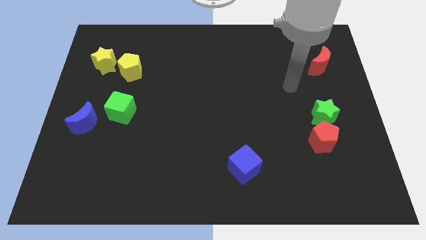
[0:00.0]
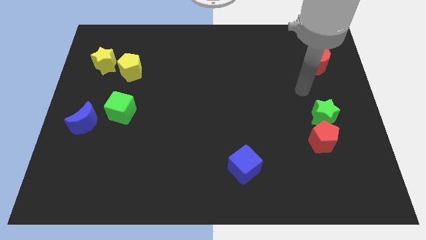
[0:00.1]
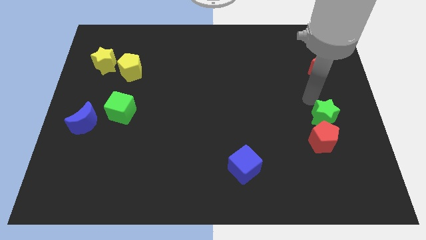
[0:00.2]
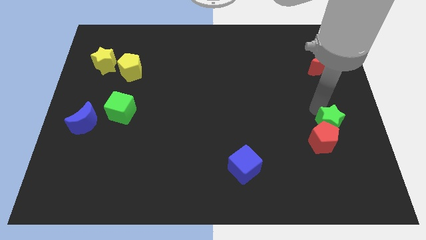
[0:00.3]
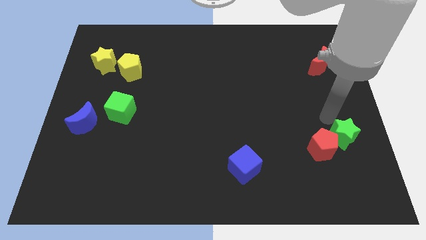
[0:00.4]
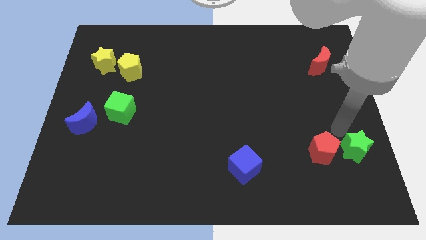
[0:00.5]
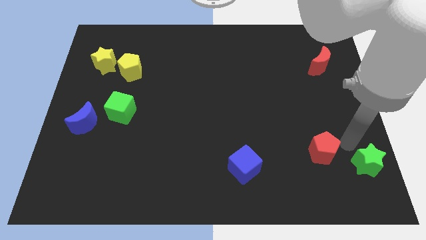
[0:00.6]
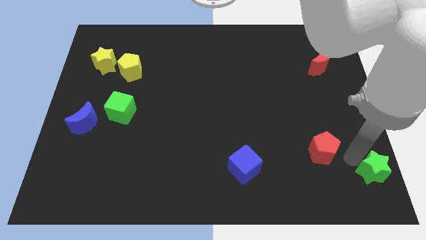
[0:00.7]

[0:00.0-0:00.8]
move the red pentagon away from the green star

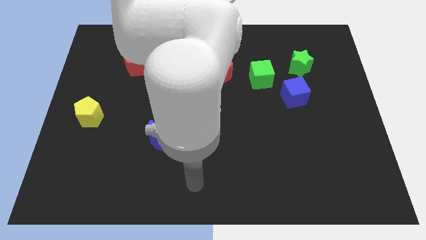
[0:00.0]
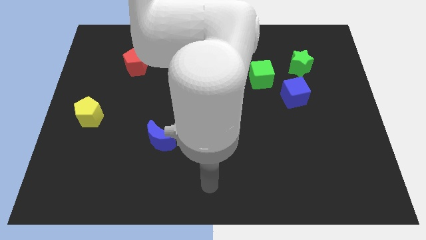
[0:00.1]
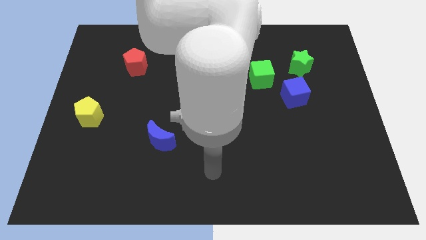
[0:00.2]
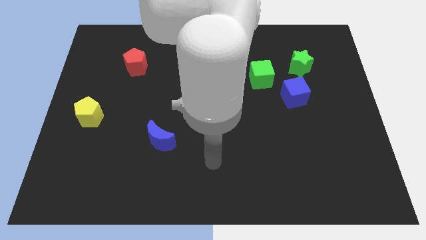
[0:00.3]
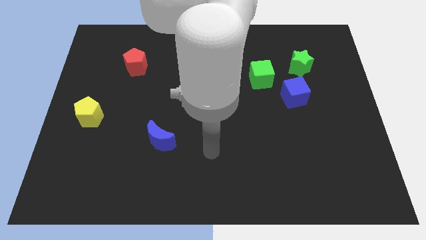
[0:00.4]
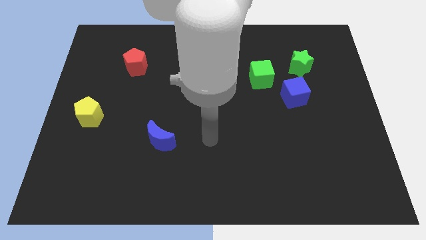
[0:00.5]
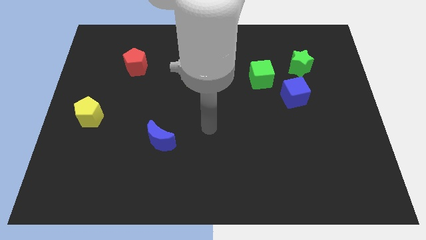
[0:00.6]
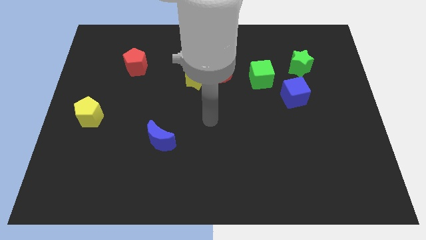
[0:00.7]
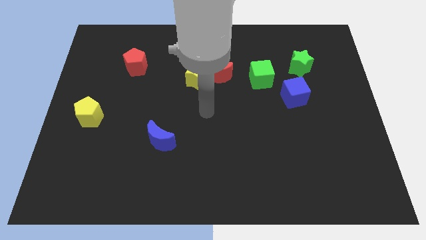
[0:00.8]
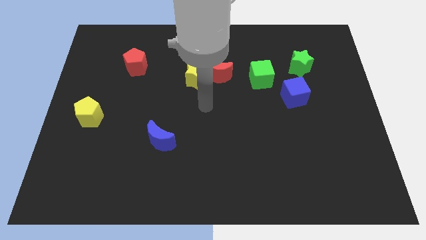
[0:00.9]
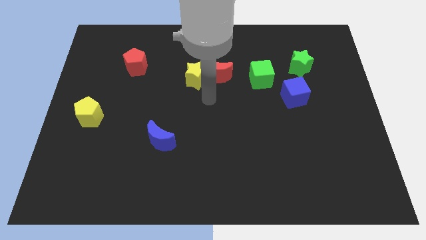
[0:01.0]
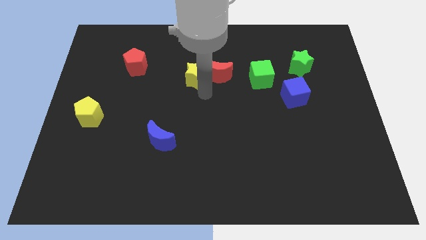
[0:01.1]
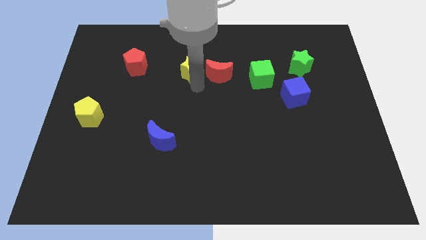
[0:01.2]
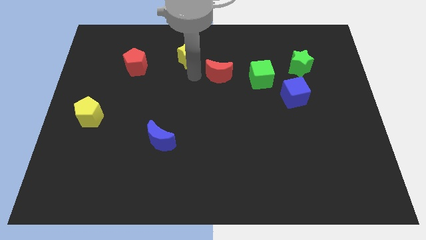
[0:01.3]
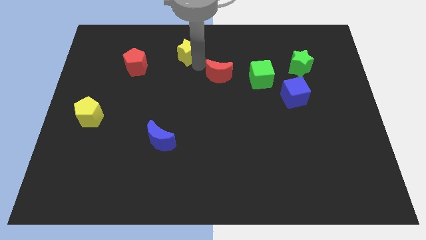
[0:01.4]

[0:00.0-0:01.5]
move the red moon away from the yellow star

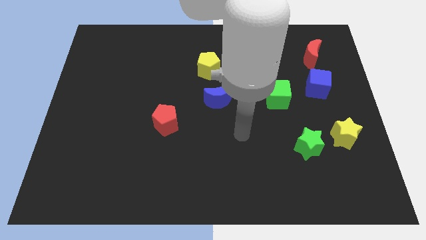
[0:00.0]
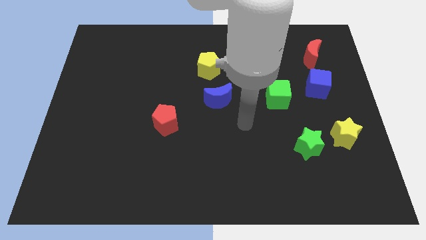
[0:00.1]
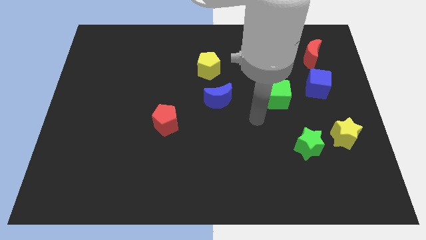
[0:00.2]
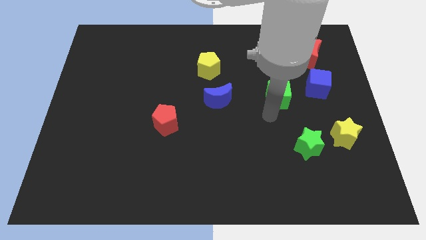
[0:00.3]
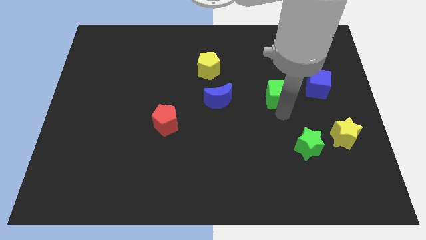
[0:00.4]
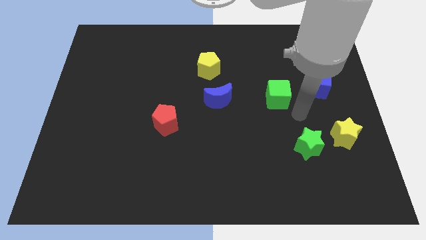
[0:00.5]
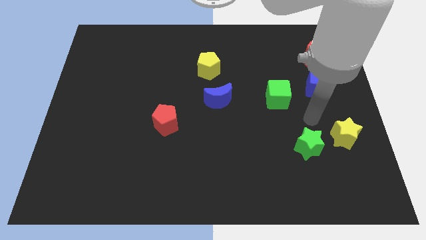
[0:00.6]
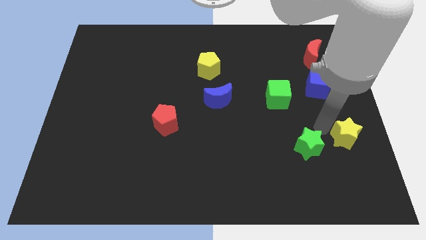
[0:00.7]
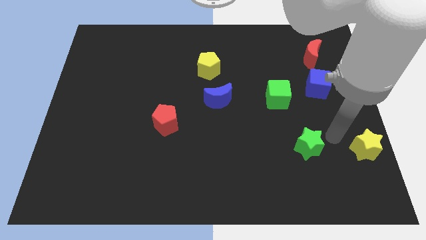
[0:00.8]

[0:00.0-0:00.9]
separate the green star from the yellow star

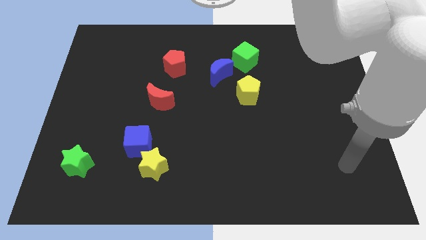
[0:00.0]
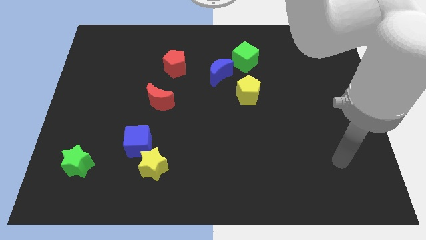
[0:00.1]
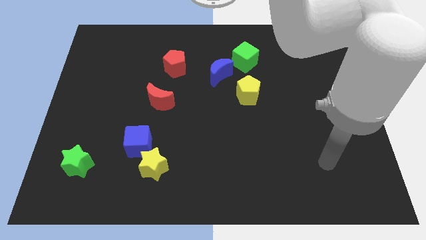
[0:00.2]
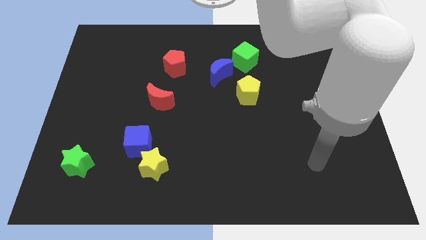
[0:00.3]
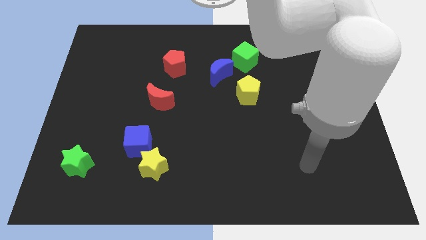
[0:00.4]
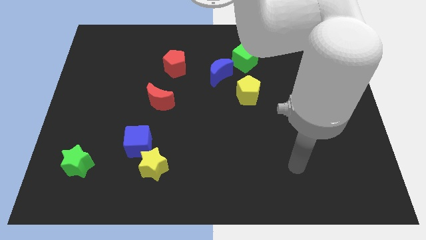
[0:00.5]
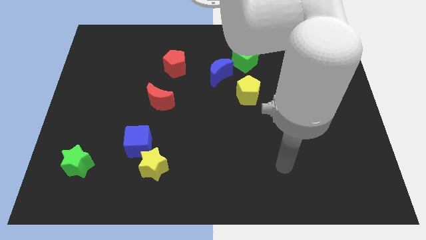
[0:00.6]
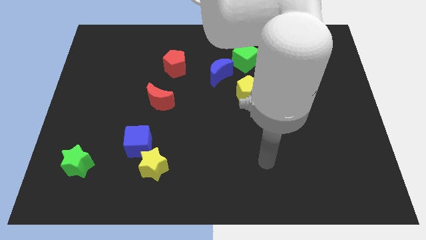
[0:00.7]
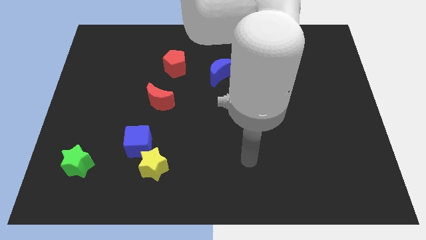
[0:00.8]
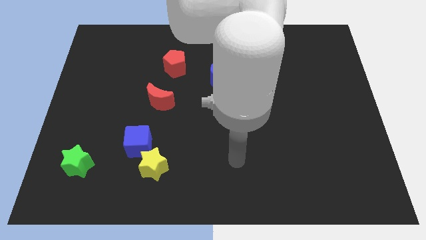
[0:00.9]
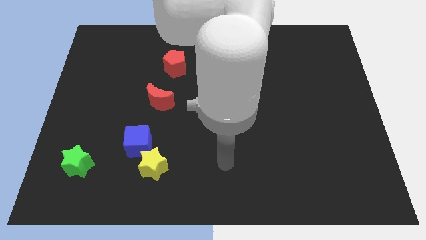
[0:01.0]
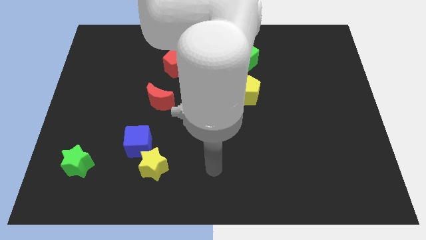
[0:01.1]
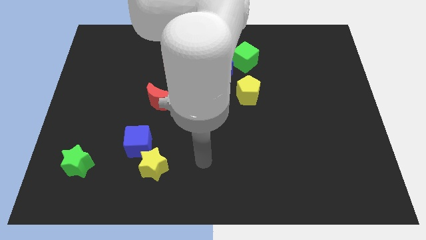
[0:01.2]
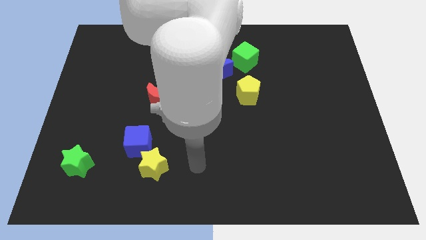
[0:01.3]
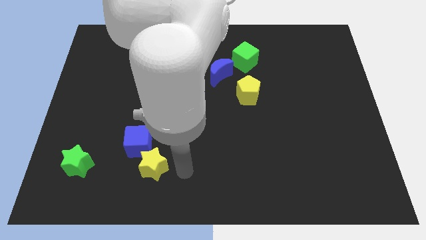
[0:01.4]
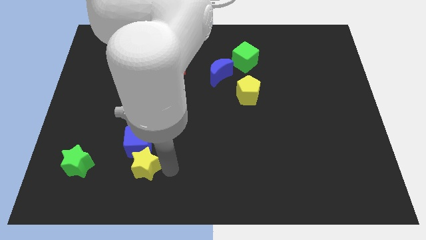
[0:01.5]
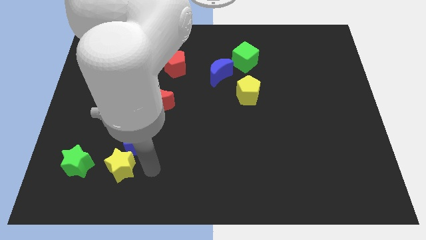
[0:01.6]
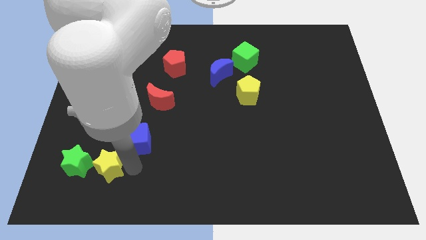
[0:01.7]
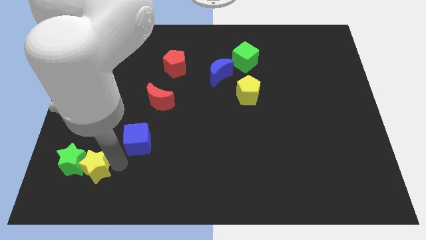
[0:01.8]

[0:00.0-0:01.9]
move the blue cube away from the yellow star

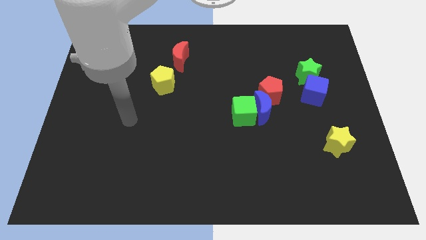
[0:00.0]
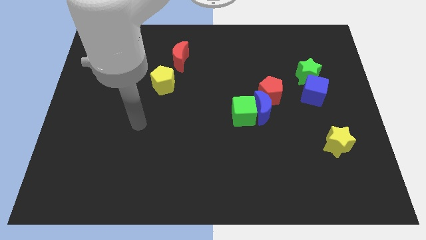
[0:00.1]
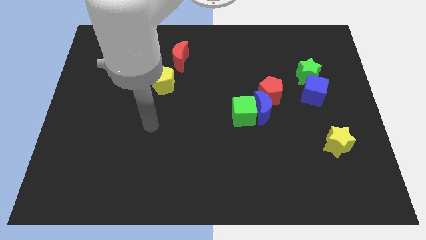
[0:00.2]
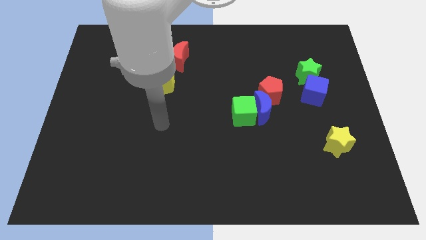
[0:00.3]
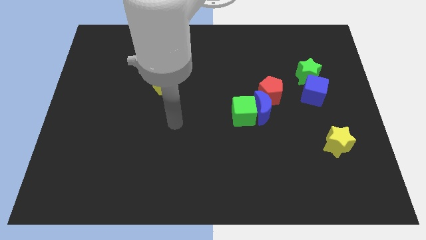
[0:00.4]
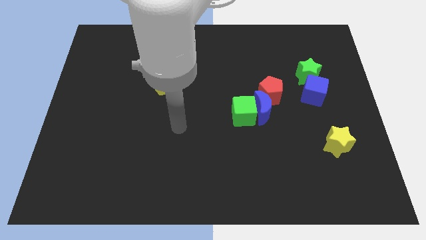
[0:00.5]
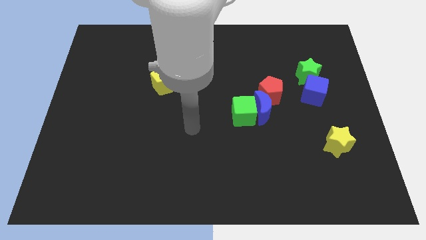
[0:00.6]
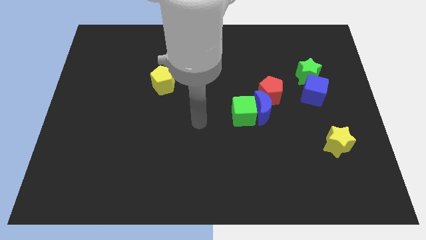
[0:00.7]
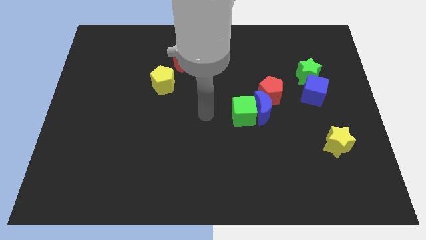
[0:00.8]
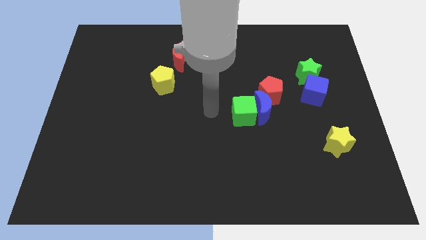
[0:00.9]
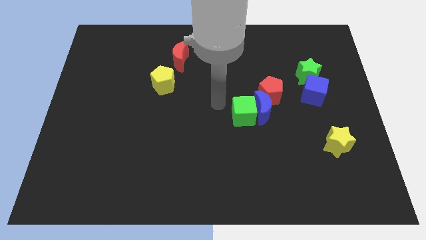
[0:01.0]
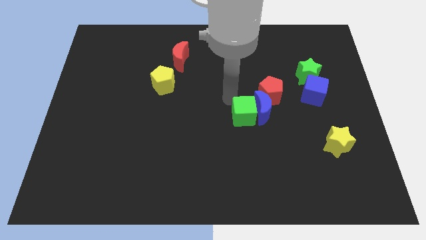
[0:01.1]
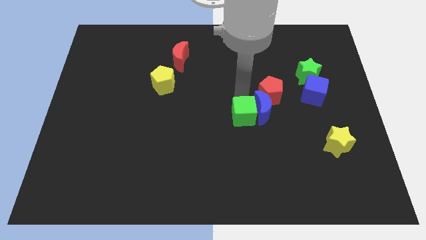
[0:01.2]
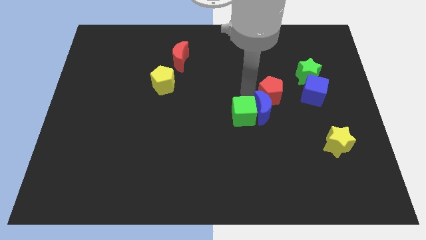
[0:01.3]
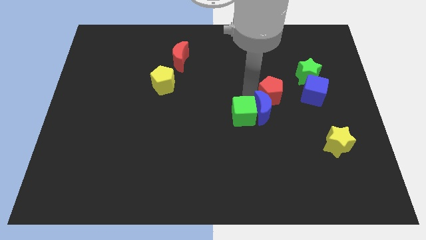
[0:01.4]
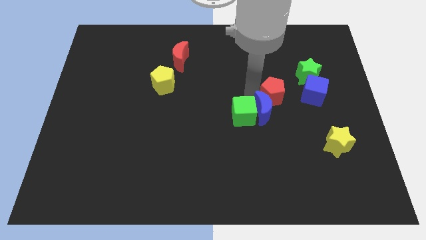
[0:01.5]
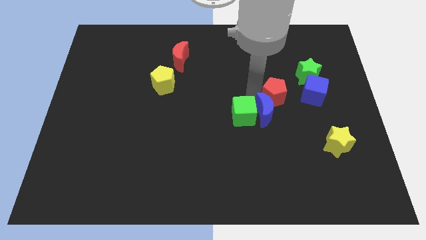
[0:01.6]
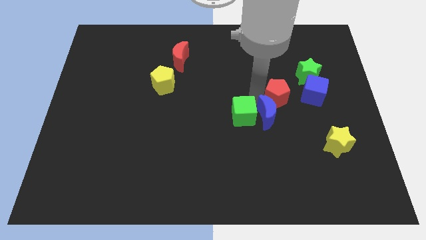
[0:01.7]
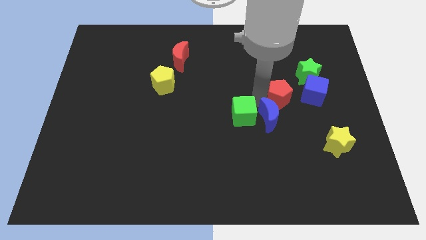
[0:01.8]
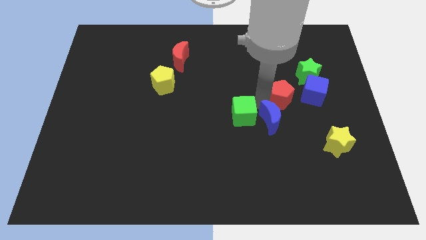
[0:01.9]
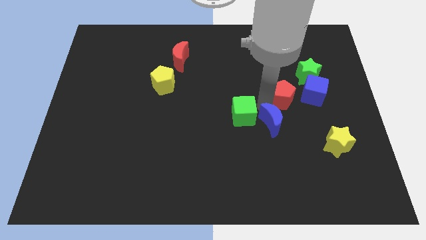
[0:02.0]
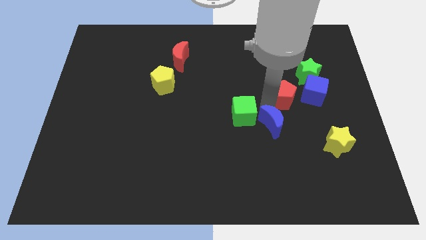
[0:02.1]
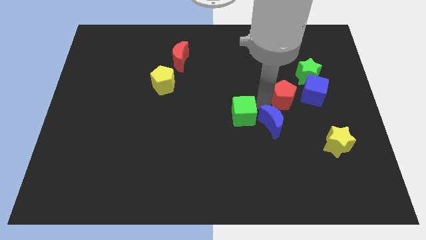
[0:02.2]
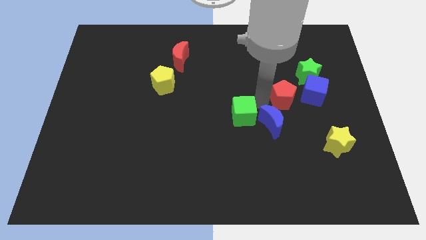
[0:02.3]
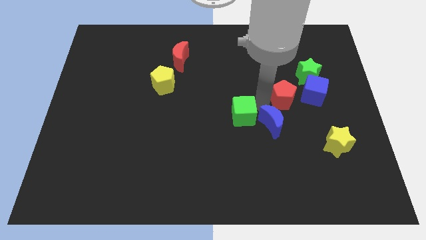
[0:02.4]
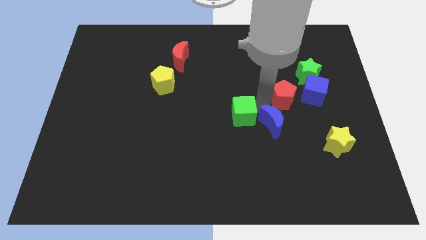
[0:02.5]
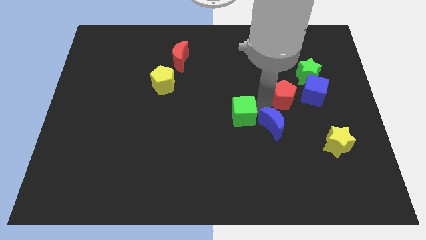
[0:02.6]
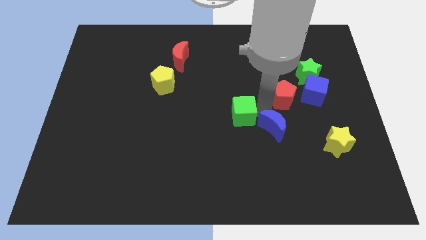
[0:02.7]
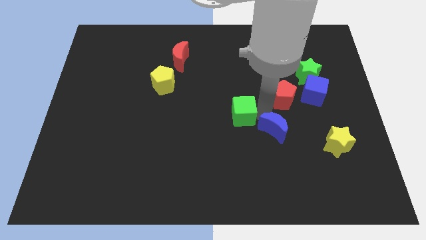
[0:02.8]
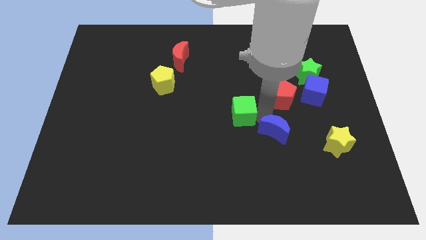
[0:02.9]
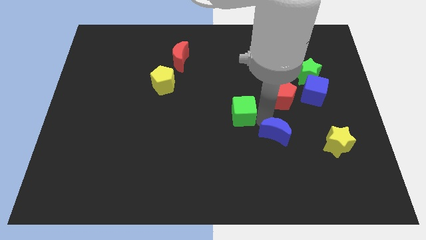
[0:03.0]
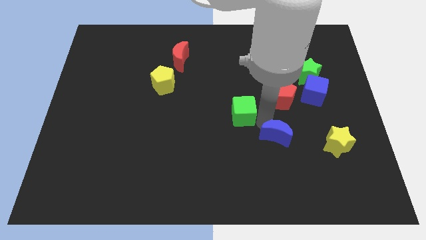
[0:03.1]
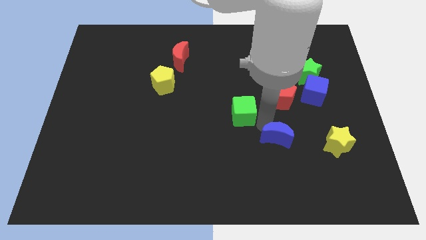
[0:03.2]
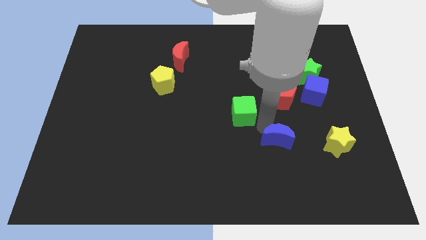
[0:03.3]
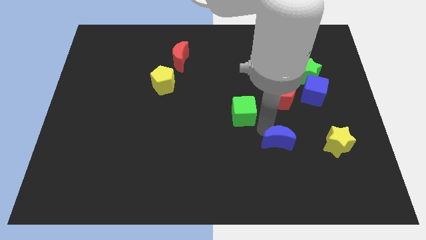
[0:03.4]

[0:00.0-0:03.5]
move the blue moon away from the green cube and red pentagon

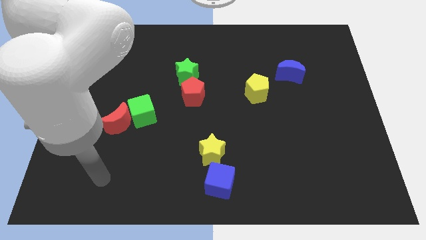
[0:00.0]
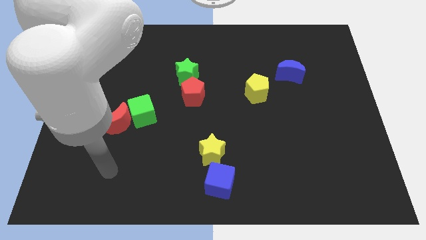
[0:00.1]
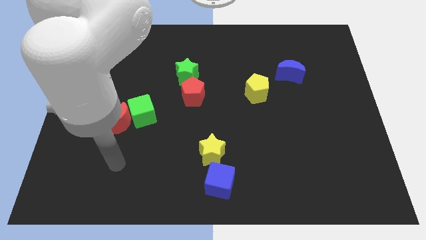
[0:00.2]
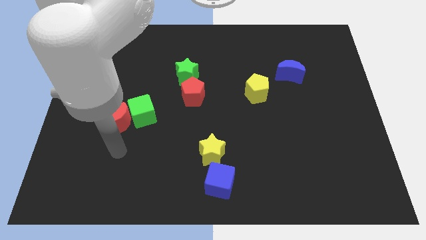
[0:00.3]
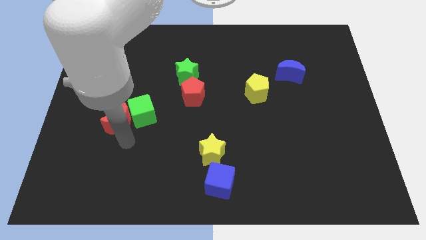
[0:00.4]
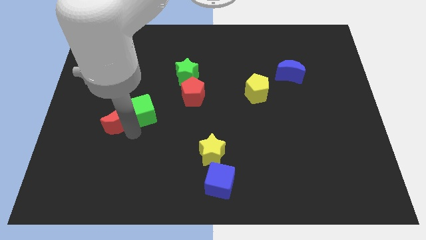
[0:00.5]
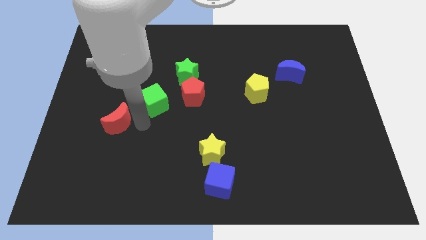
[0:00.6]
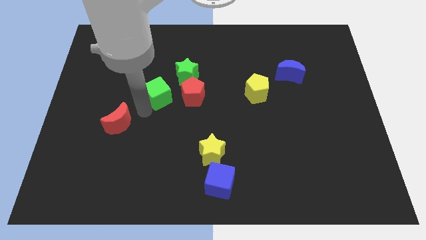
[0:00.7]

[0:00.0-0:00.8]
move the red moon away from the green cube
